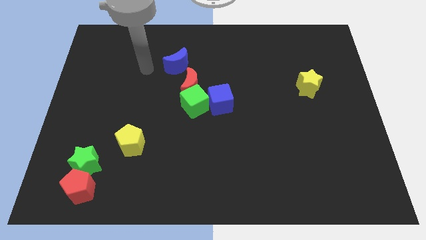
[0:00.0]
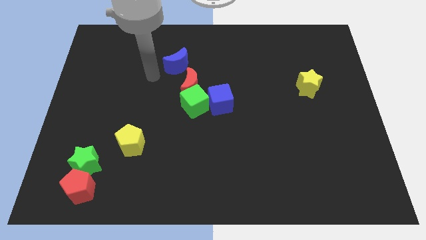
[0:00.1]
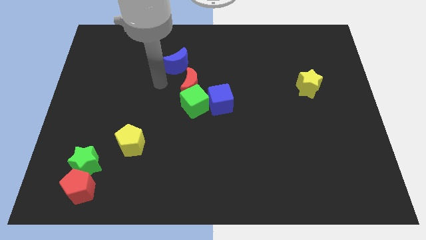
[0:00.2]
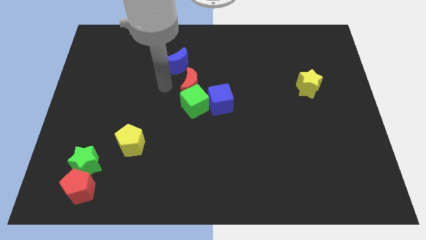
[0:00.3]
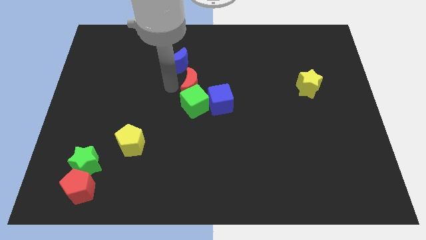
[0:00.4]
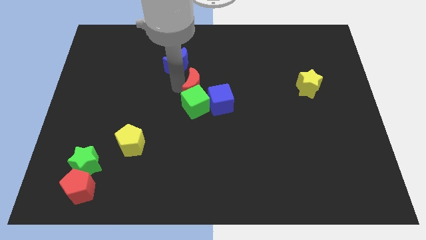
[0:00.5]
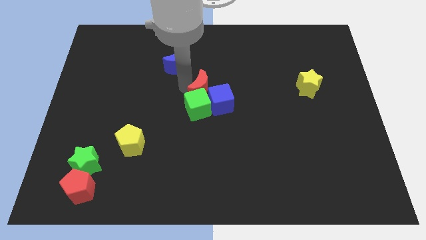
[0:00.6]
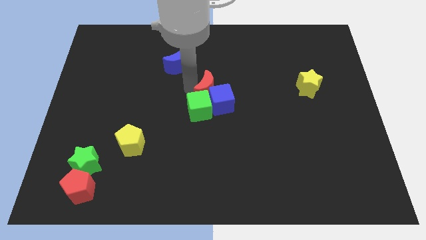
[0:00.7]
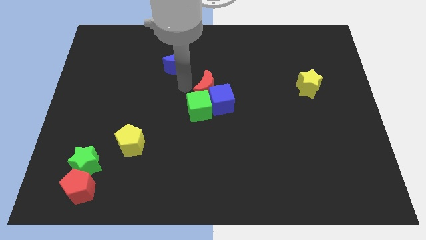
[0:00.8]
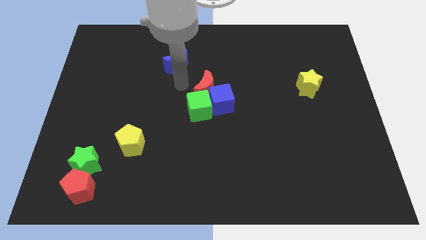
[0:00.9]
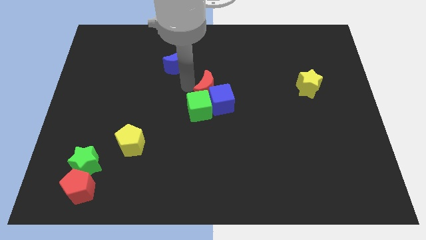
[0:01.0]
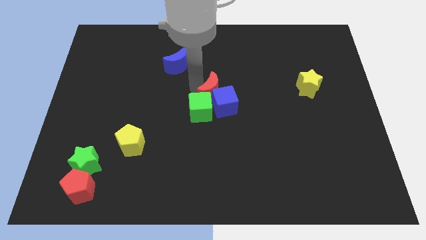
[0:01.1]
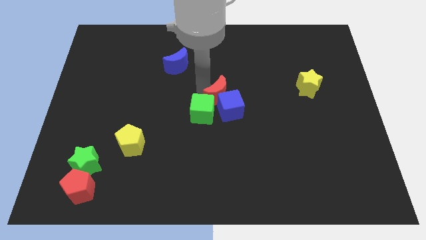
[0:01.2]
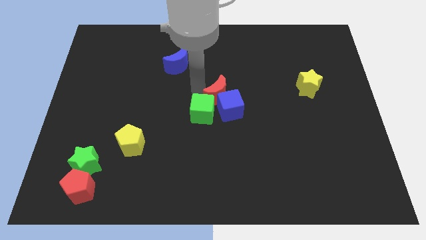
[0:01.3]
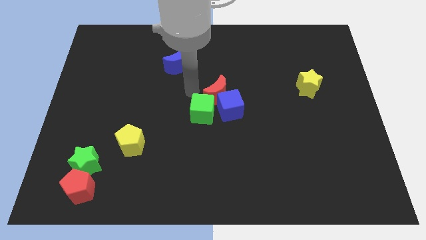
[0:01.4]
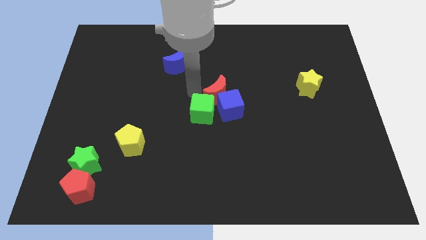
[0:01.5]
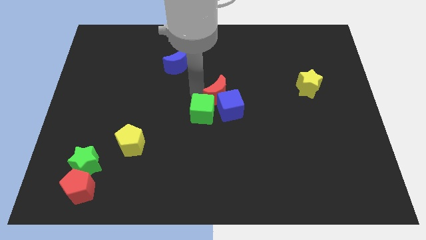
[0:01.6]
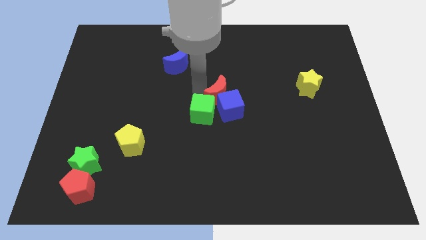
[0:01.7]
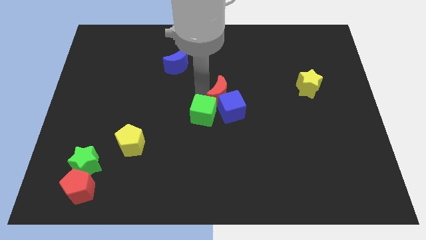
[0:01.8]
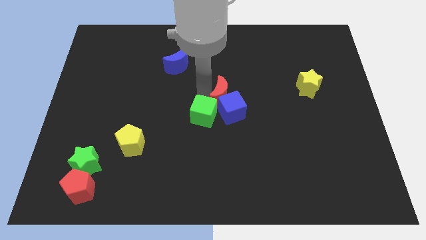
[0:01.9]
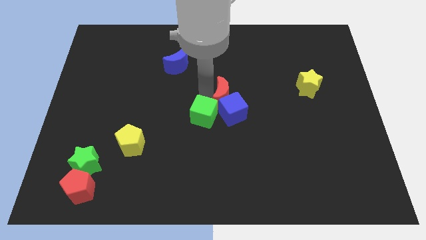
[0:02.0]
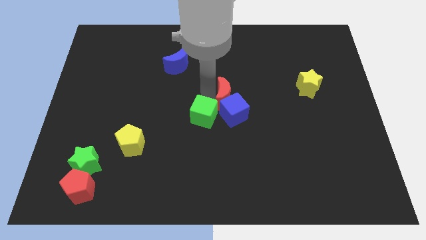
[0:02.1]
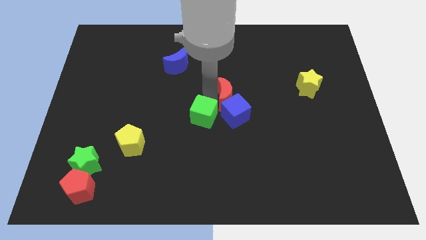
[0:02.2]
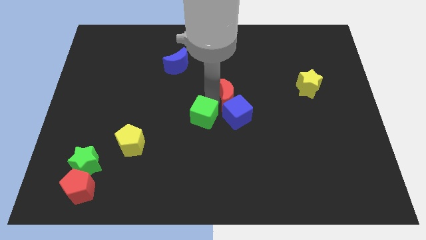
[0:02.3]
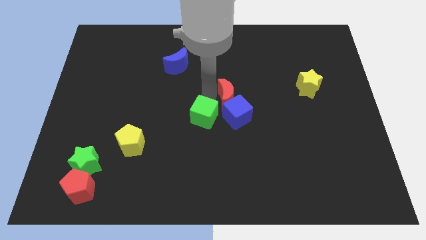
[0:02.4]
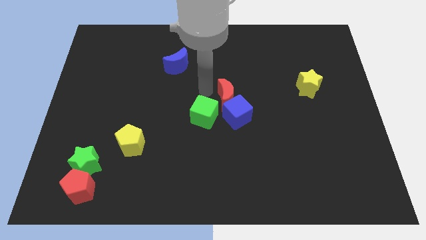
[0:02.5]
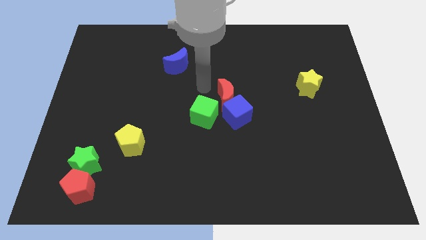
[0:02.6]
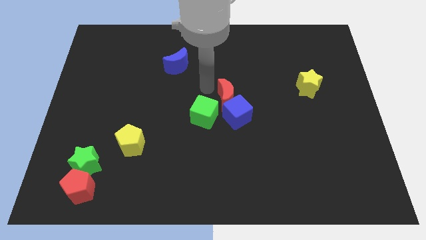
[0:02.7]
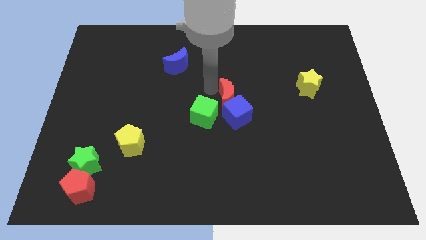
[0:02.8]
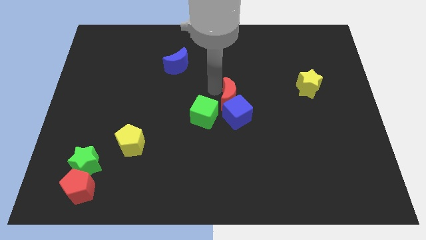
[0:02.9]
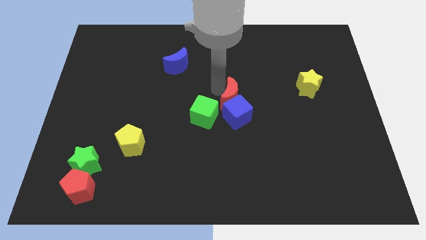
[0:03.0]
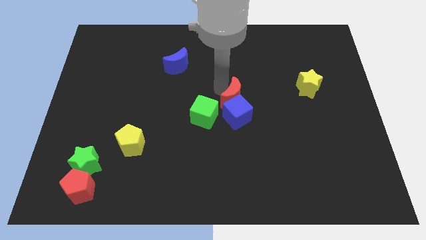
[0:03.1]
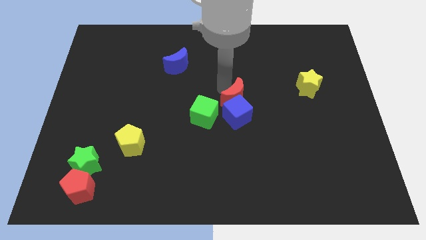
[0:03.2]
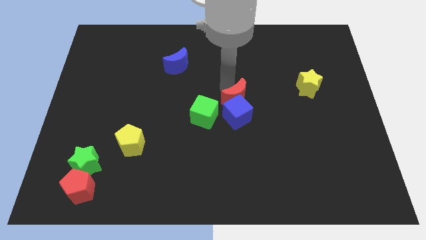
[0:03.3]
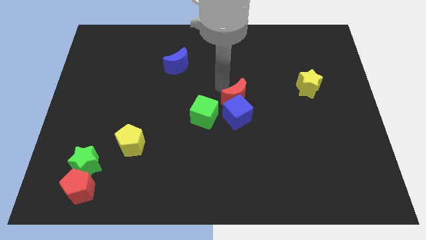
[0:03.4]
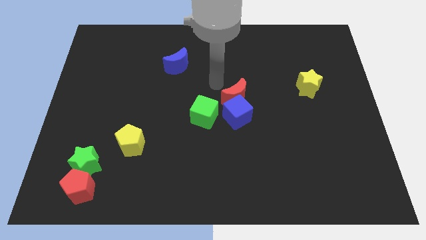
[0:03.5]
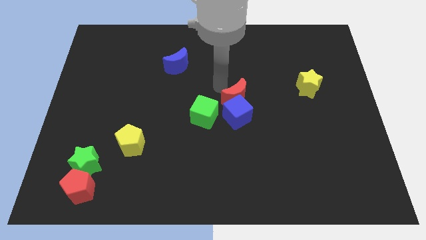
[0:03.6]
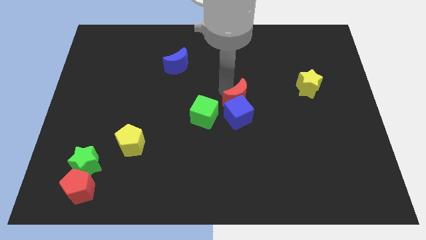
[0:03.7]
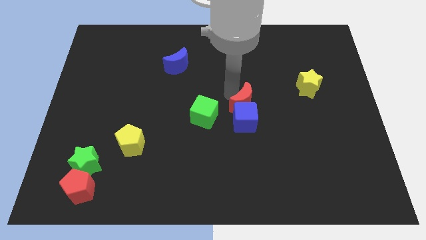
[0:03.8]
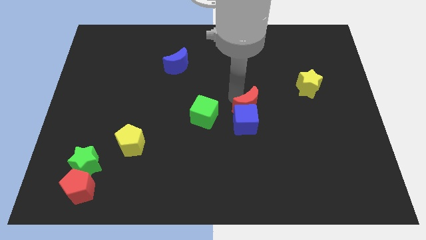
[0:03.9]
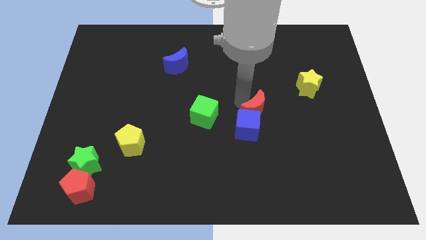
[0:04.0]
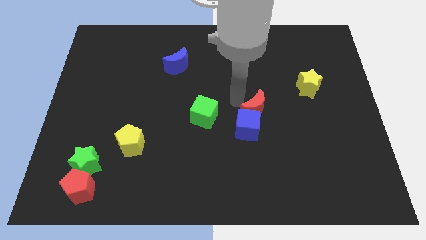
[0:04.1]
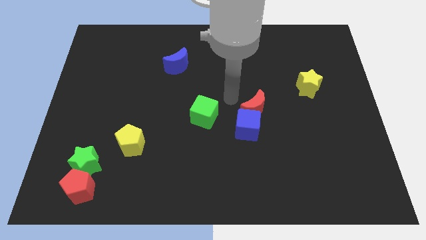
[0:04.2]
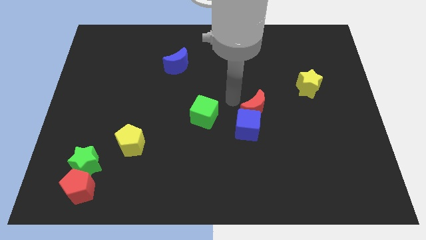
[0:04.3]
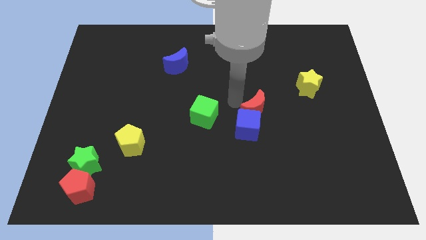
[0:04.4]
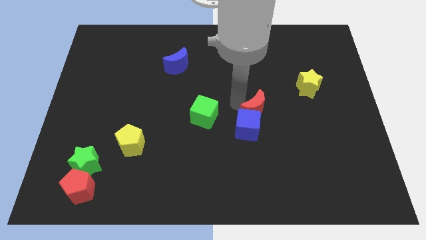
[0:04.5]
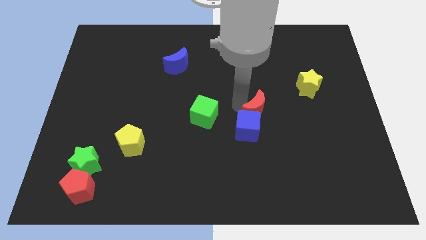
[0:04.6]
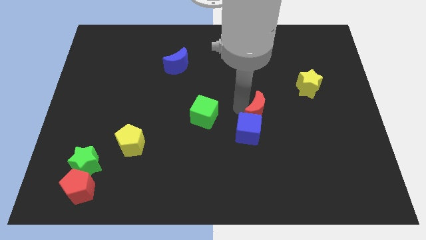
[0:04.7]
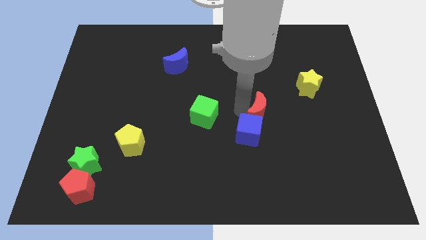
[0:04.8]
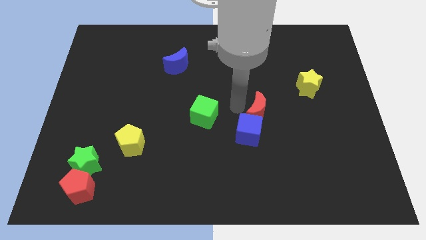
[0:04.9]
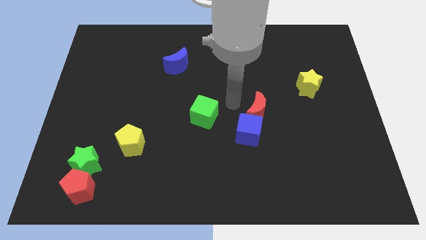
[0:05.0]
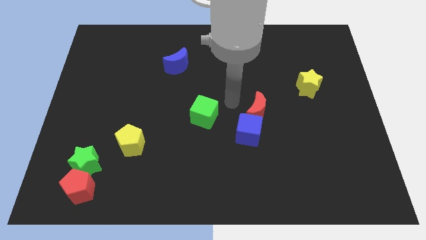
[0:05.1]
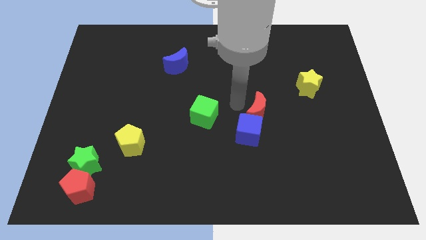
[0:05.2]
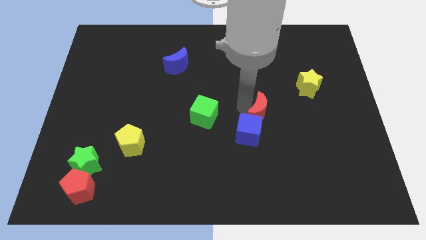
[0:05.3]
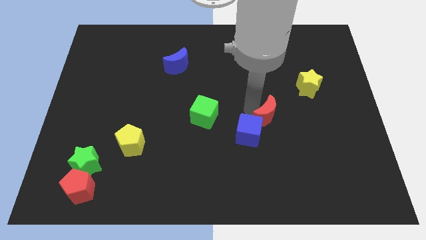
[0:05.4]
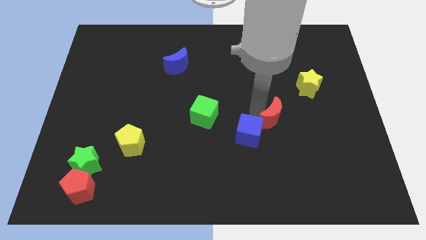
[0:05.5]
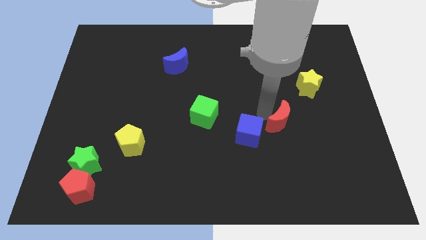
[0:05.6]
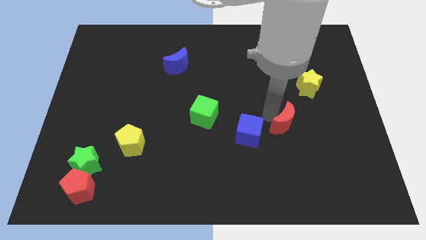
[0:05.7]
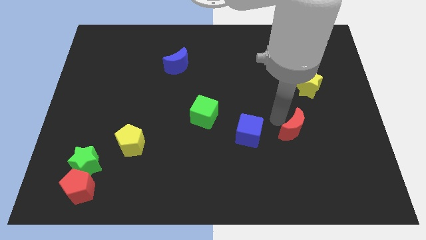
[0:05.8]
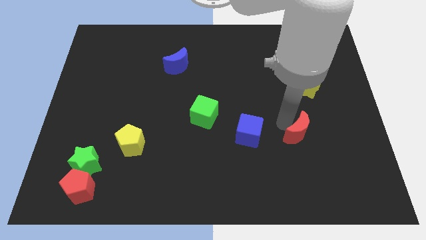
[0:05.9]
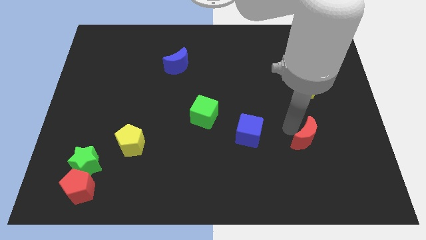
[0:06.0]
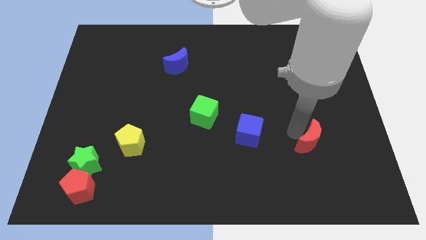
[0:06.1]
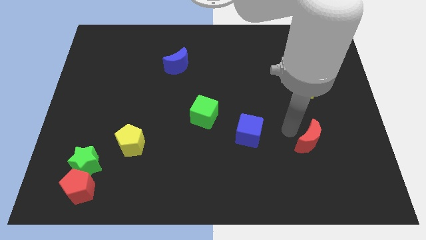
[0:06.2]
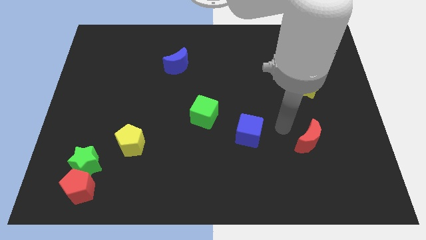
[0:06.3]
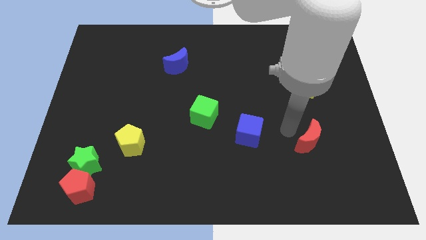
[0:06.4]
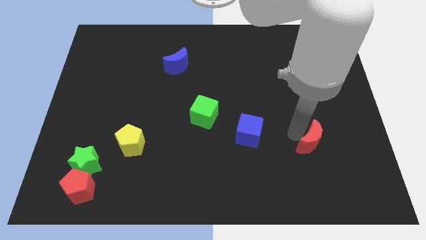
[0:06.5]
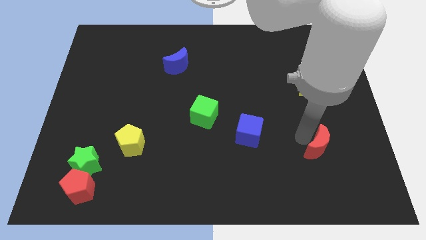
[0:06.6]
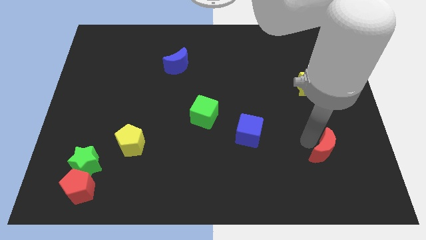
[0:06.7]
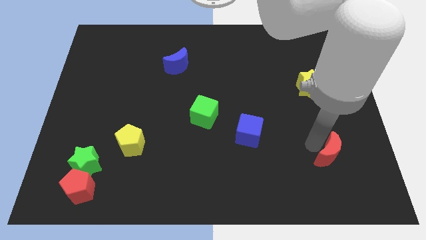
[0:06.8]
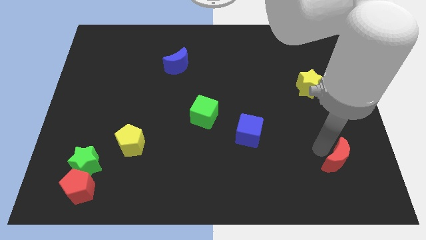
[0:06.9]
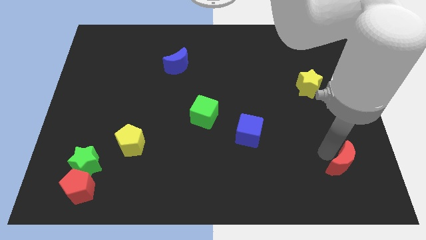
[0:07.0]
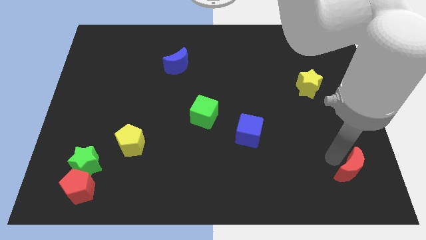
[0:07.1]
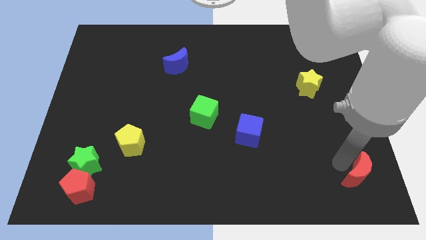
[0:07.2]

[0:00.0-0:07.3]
slide the red moon to the lower right corner
